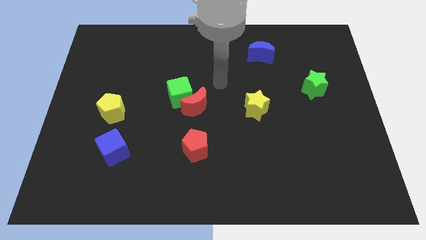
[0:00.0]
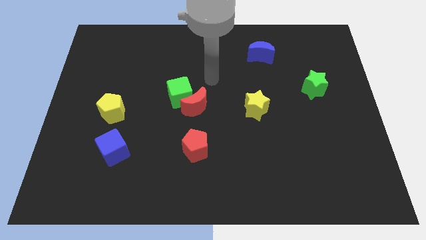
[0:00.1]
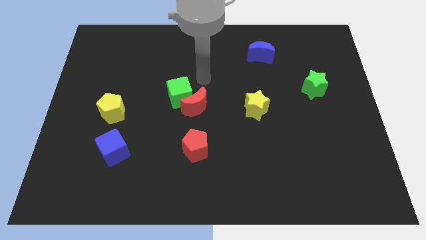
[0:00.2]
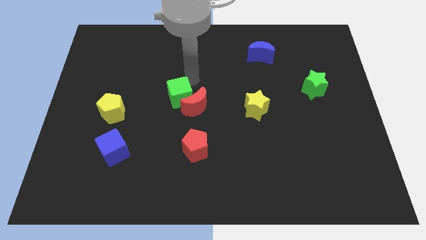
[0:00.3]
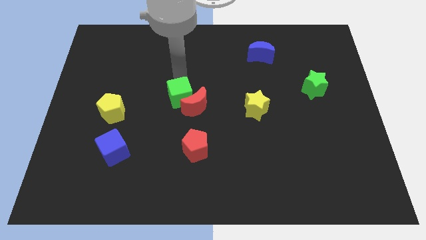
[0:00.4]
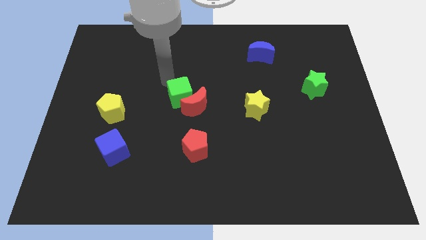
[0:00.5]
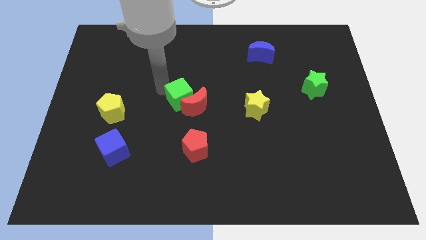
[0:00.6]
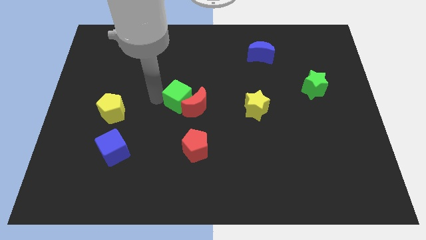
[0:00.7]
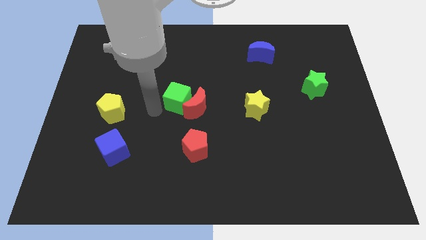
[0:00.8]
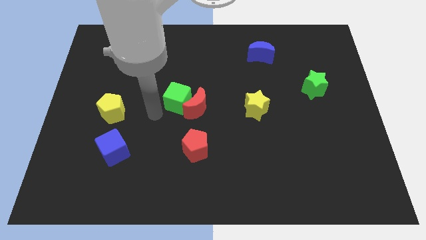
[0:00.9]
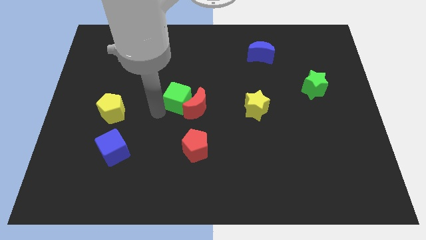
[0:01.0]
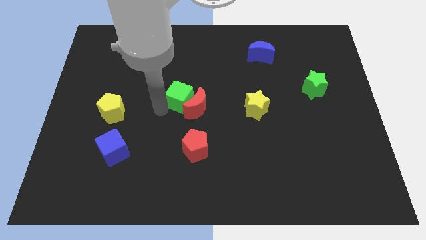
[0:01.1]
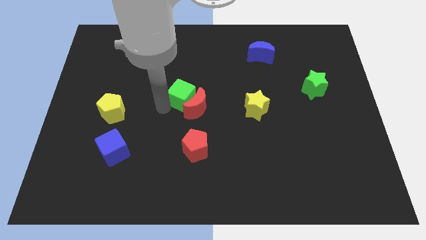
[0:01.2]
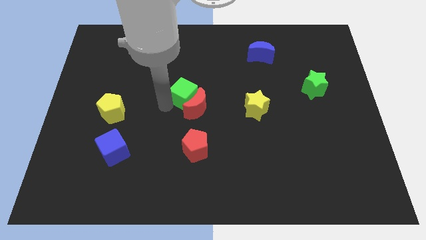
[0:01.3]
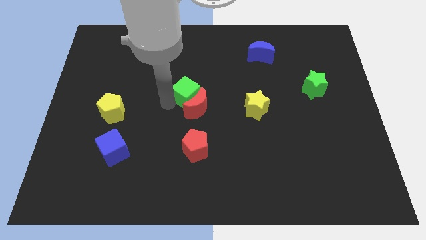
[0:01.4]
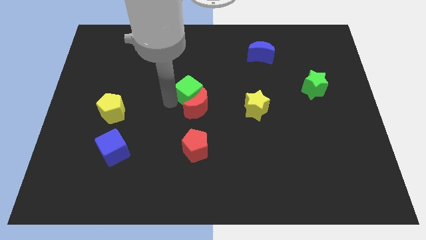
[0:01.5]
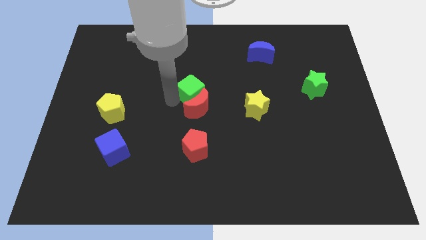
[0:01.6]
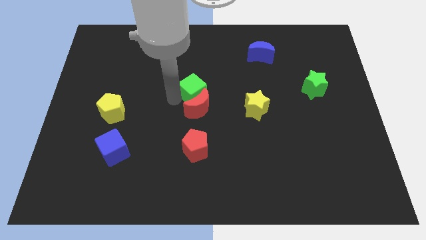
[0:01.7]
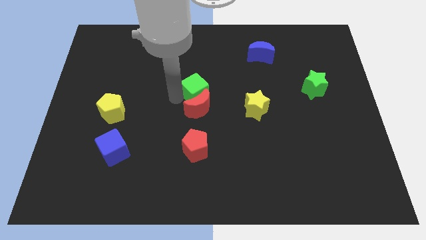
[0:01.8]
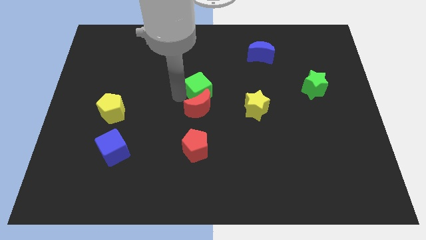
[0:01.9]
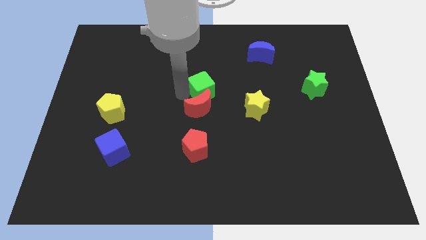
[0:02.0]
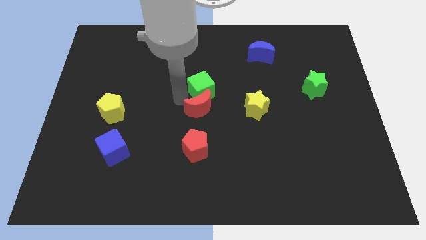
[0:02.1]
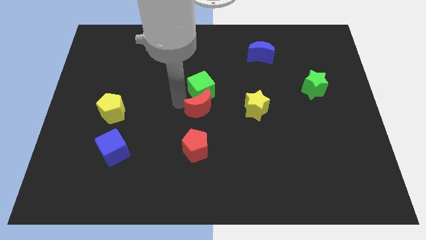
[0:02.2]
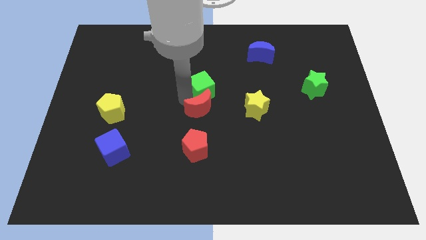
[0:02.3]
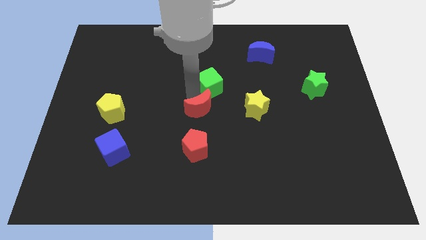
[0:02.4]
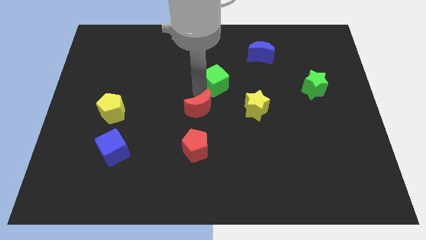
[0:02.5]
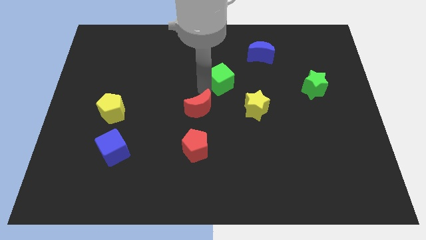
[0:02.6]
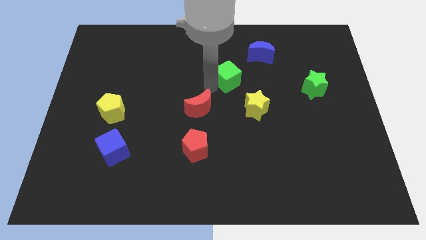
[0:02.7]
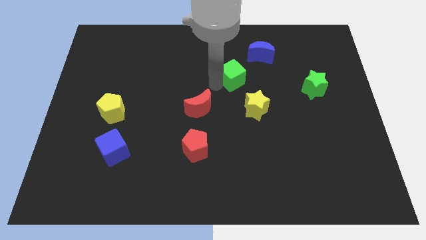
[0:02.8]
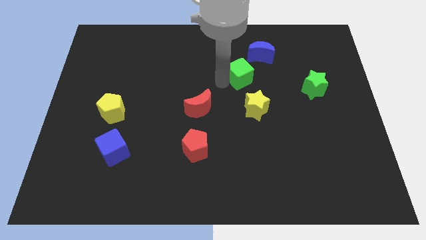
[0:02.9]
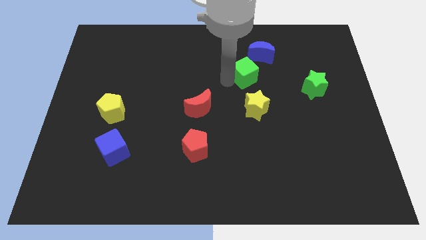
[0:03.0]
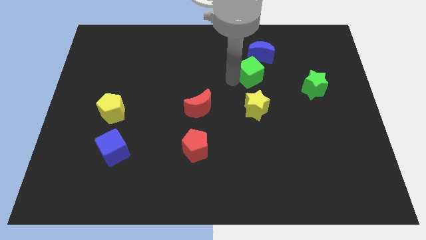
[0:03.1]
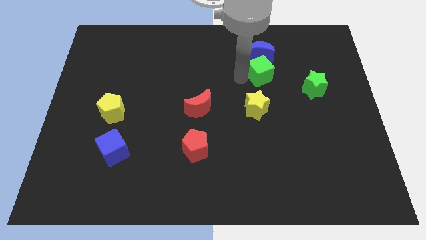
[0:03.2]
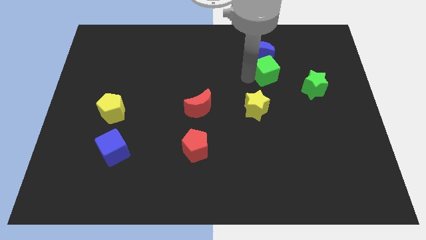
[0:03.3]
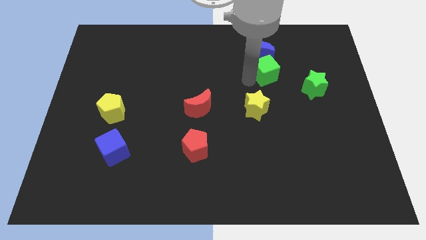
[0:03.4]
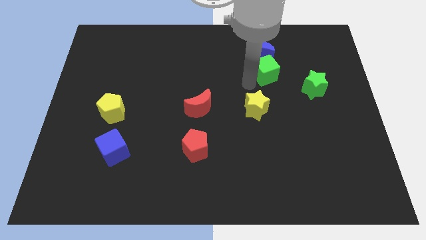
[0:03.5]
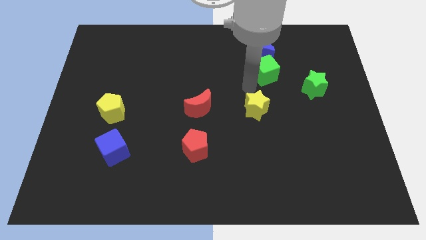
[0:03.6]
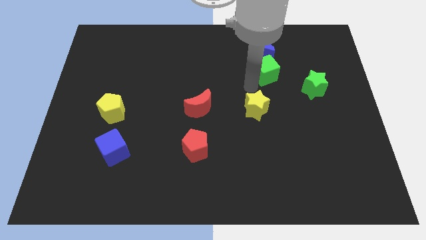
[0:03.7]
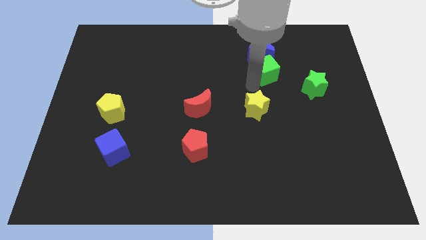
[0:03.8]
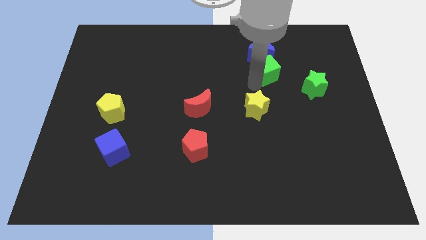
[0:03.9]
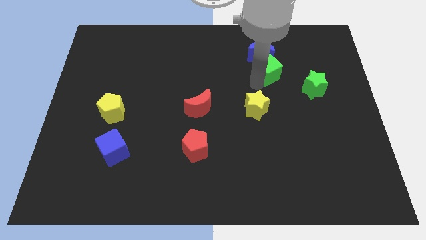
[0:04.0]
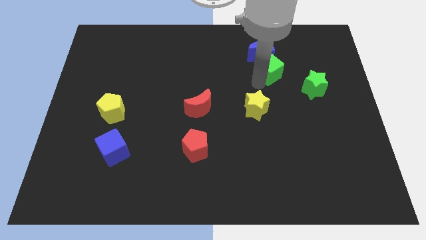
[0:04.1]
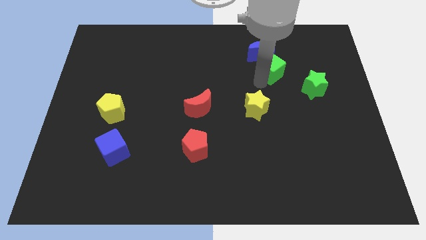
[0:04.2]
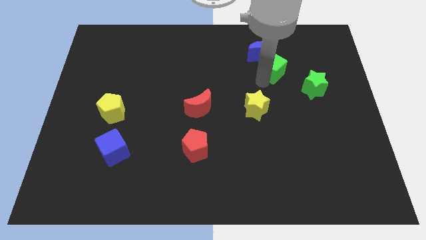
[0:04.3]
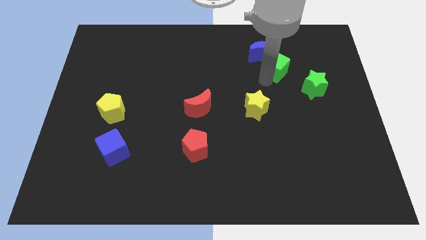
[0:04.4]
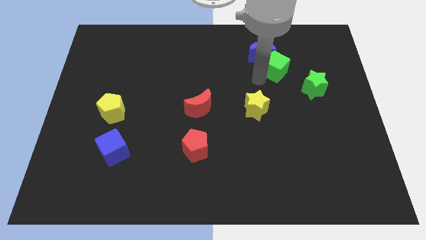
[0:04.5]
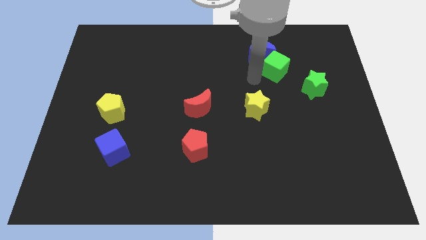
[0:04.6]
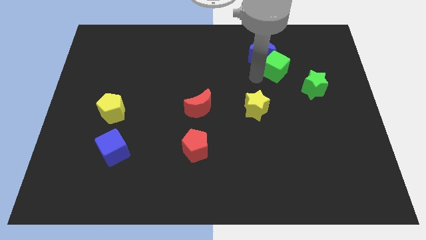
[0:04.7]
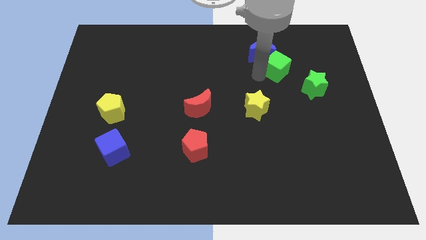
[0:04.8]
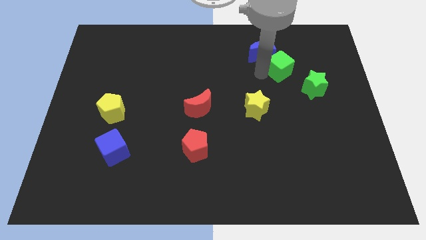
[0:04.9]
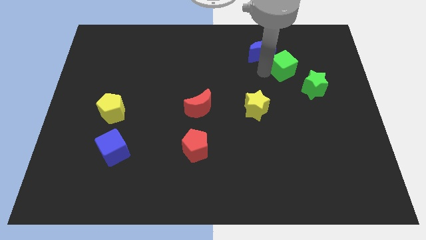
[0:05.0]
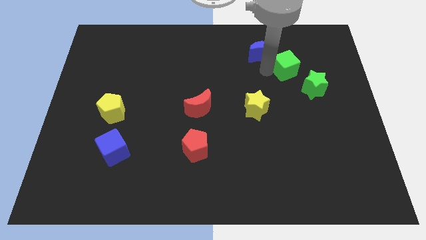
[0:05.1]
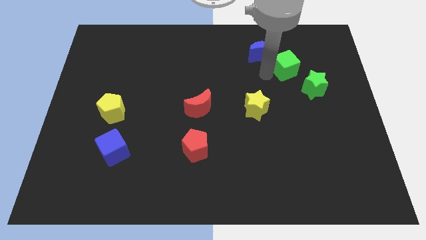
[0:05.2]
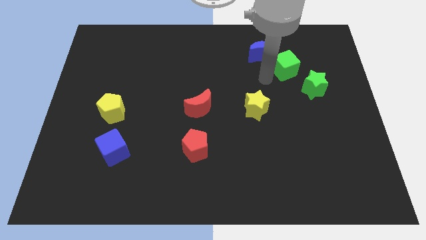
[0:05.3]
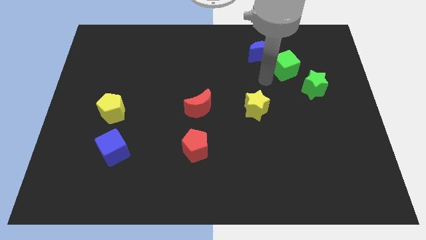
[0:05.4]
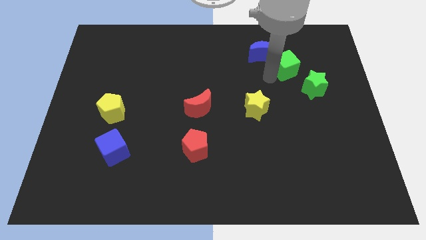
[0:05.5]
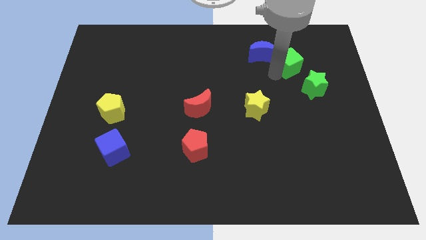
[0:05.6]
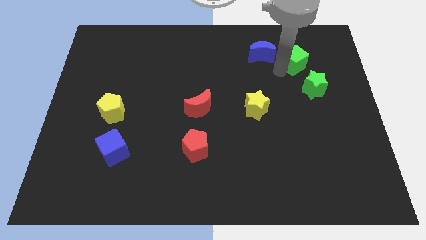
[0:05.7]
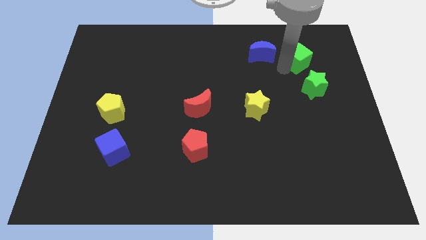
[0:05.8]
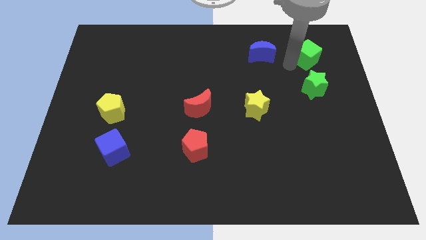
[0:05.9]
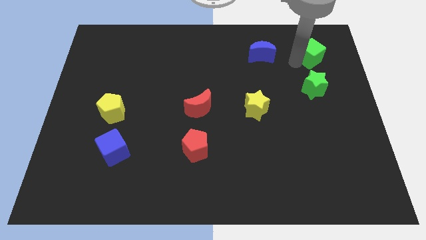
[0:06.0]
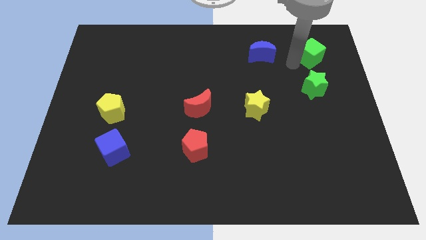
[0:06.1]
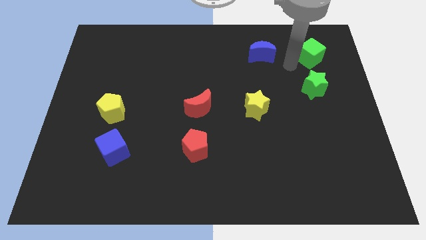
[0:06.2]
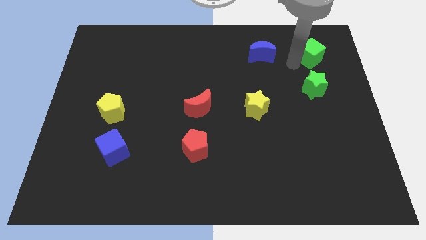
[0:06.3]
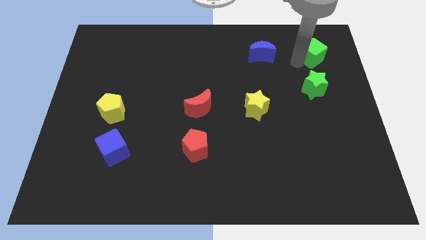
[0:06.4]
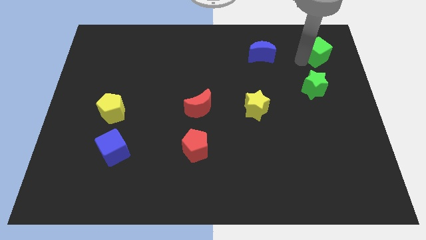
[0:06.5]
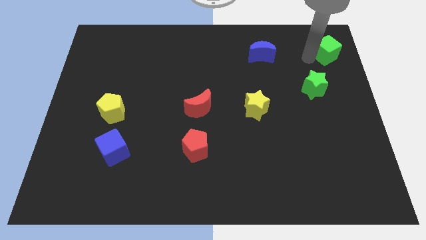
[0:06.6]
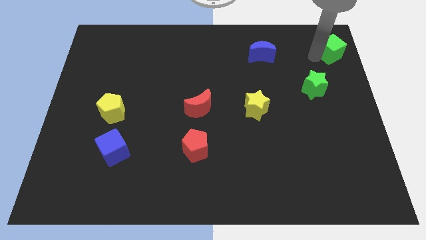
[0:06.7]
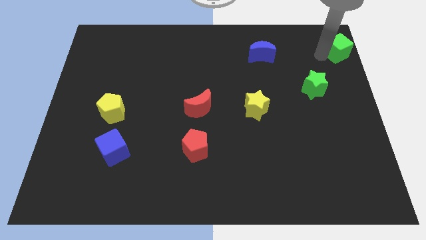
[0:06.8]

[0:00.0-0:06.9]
move the green cube to the top right
